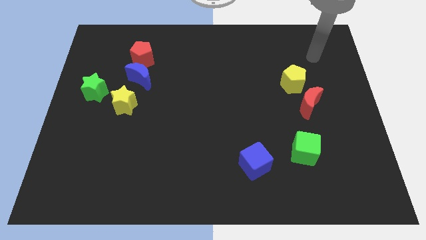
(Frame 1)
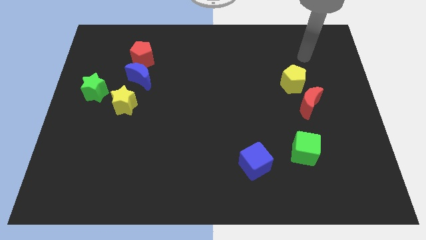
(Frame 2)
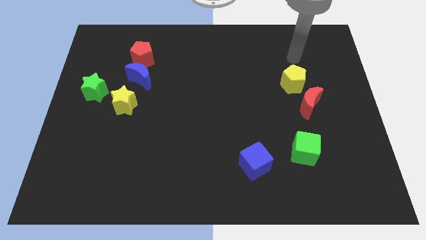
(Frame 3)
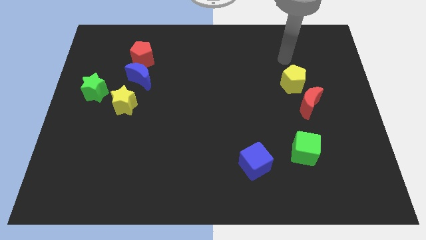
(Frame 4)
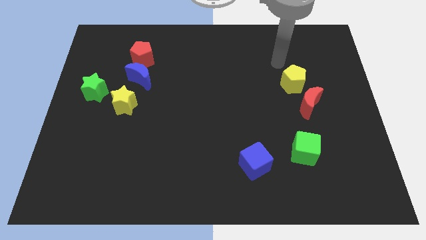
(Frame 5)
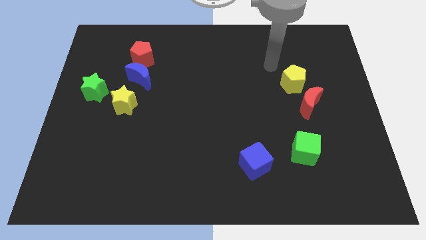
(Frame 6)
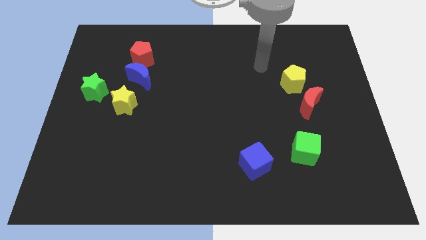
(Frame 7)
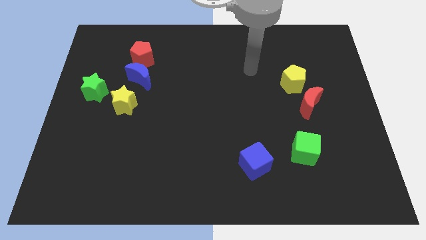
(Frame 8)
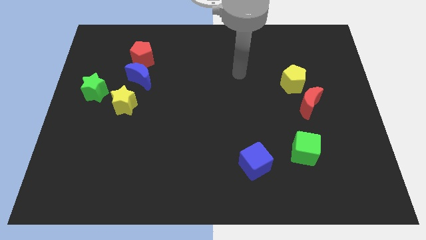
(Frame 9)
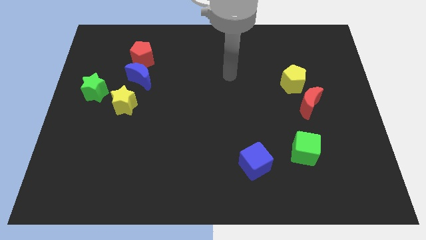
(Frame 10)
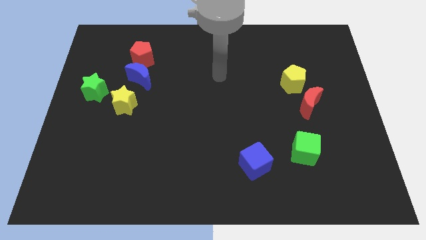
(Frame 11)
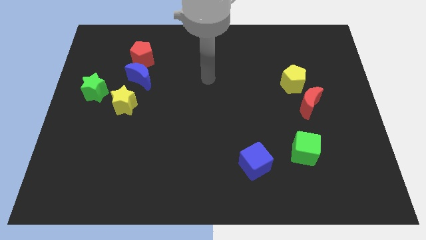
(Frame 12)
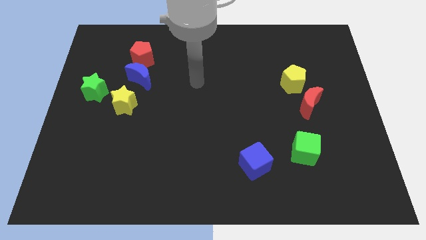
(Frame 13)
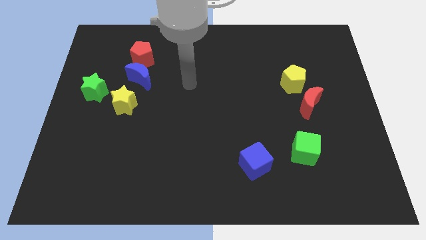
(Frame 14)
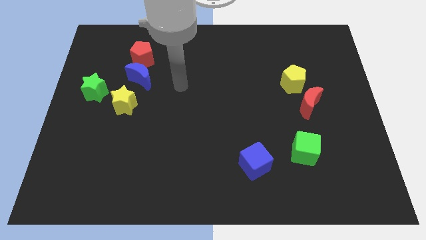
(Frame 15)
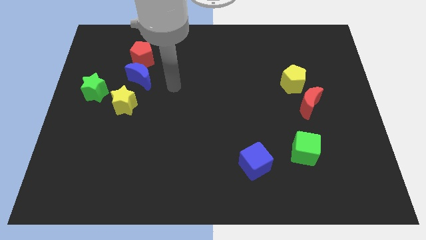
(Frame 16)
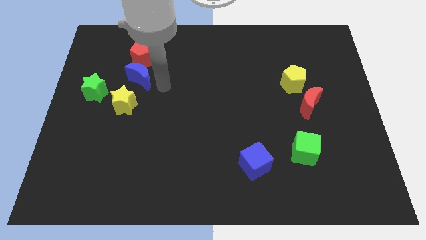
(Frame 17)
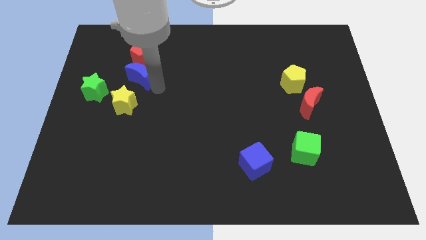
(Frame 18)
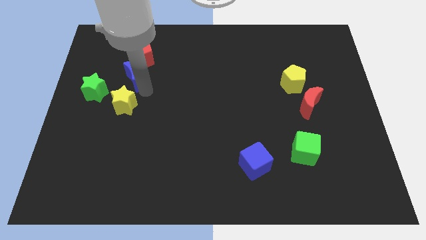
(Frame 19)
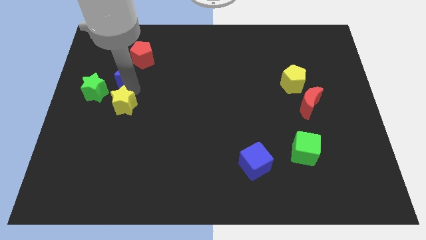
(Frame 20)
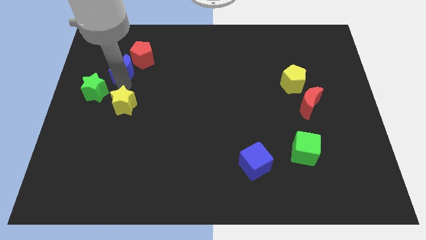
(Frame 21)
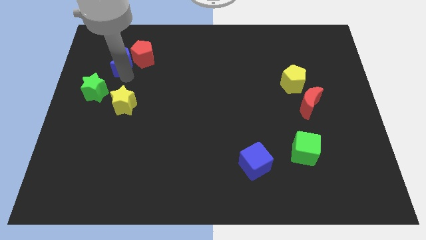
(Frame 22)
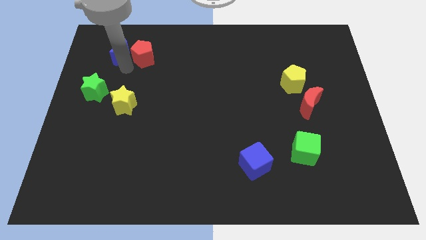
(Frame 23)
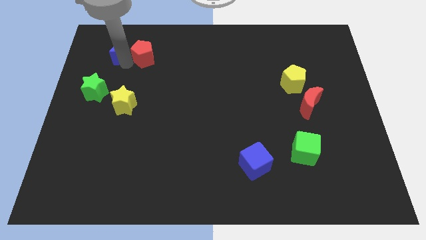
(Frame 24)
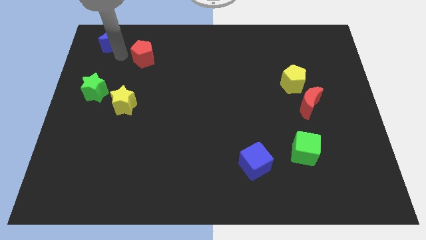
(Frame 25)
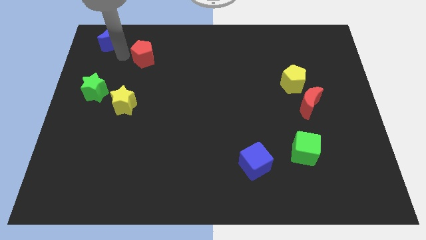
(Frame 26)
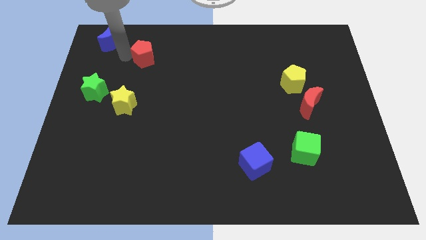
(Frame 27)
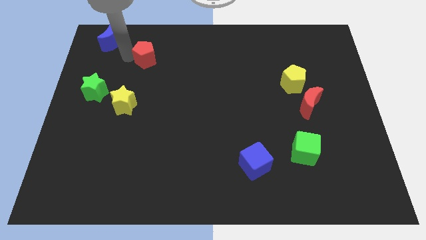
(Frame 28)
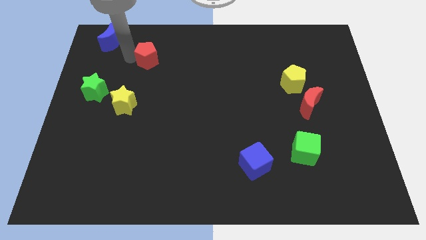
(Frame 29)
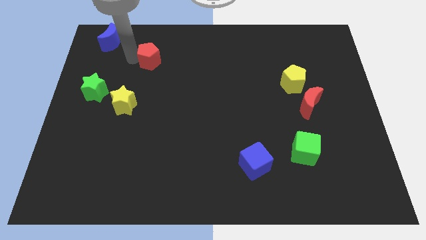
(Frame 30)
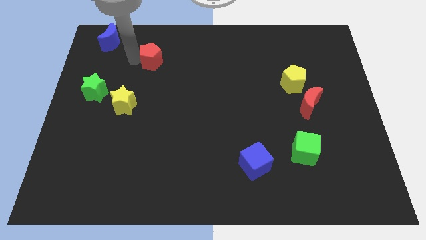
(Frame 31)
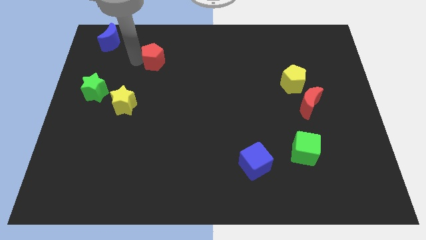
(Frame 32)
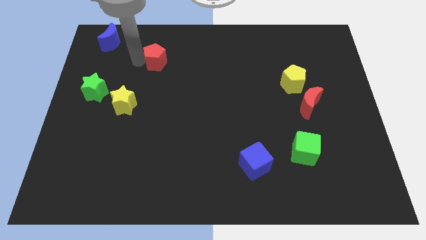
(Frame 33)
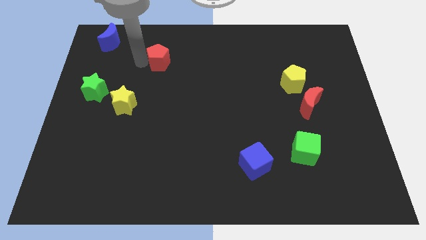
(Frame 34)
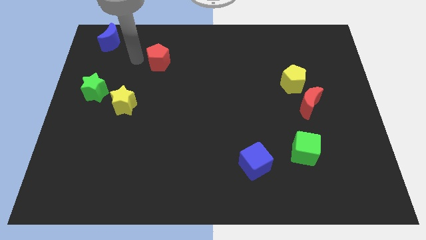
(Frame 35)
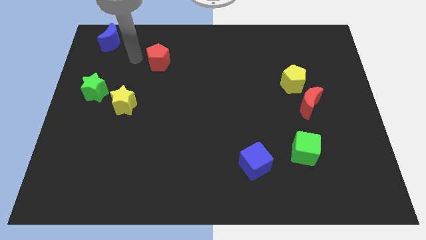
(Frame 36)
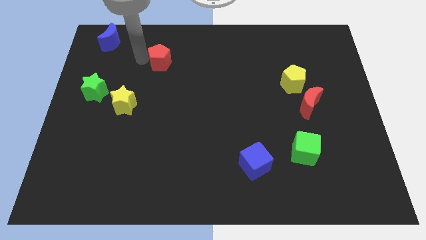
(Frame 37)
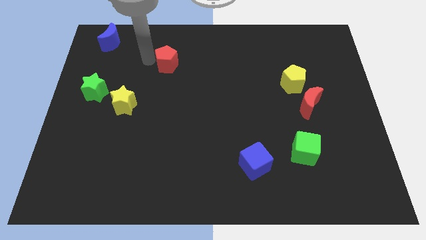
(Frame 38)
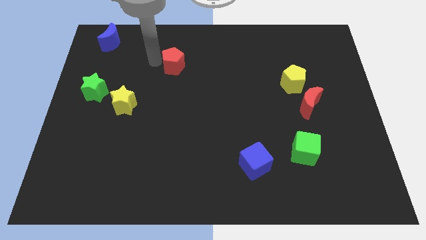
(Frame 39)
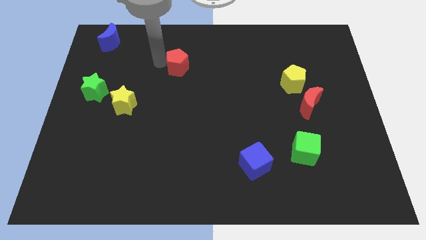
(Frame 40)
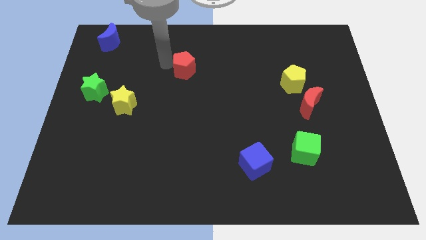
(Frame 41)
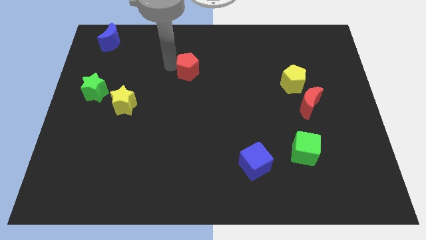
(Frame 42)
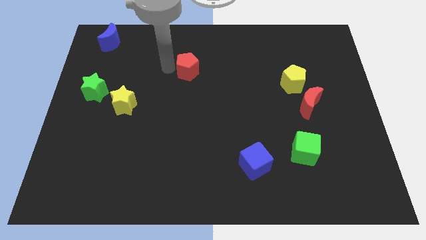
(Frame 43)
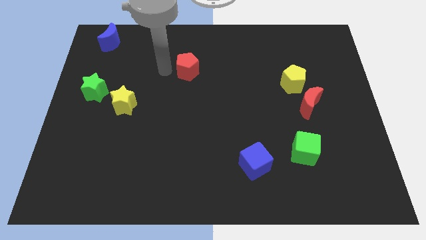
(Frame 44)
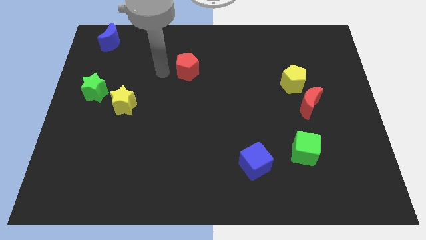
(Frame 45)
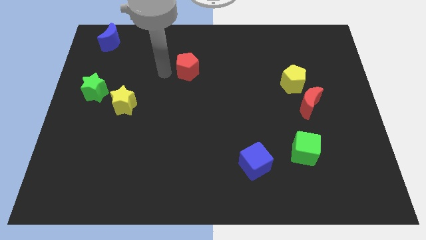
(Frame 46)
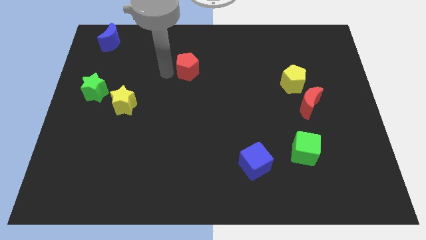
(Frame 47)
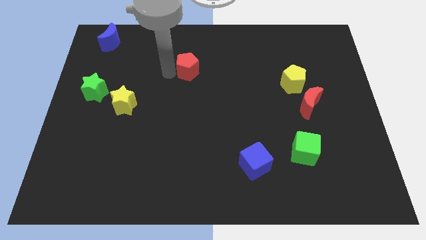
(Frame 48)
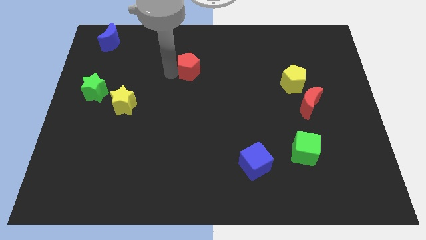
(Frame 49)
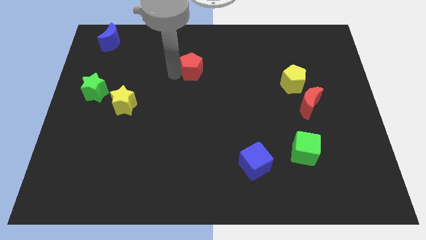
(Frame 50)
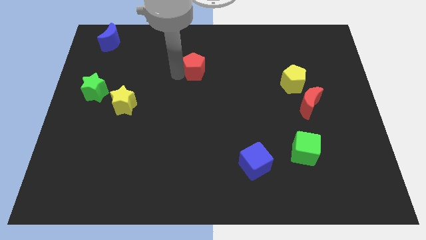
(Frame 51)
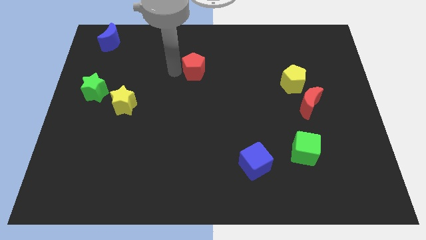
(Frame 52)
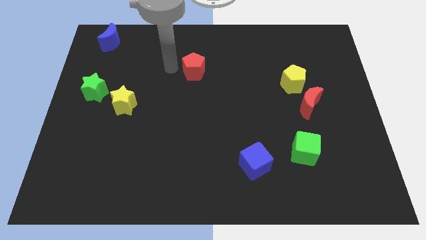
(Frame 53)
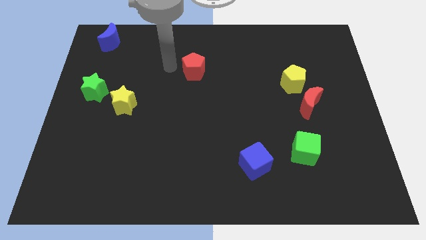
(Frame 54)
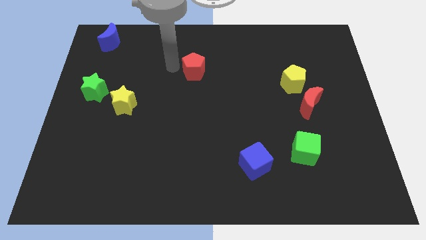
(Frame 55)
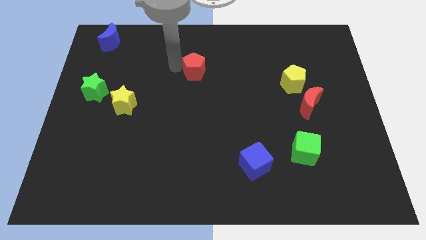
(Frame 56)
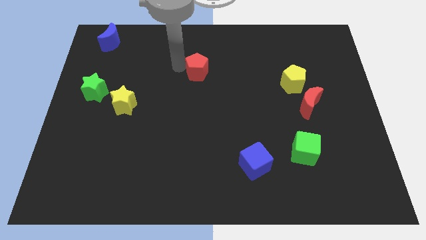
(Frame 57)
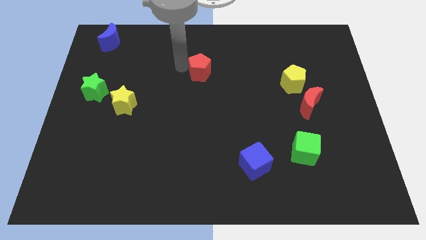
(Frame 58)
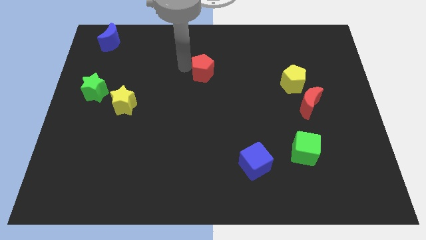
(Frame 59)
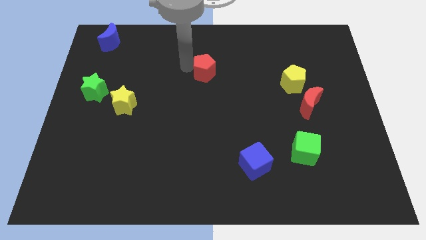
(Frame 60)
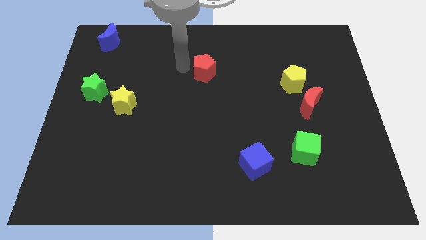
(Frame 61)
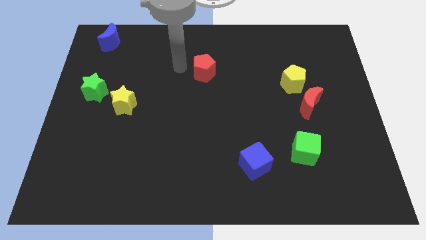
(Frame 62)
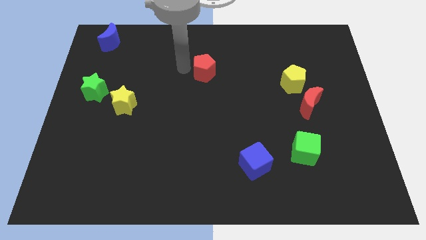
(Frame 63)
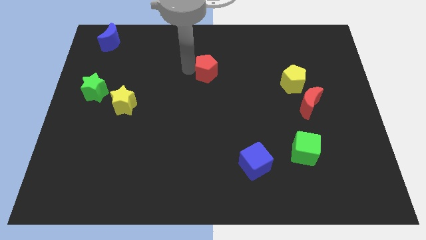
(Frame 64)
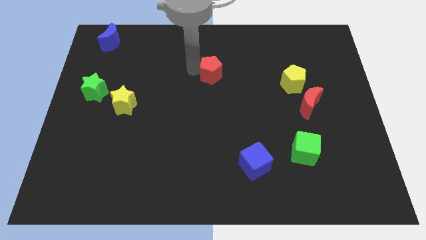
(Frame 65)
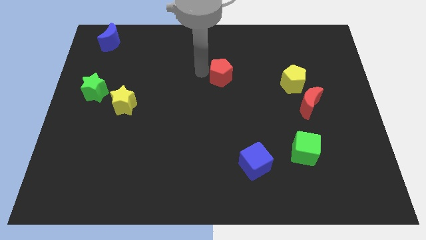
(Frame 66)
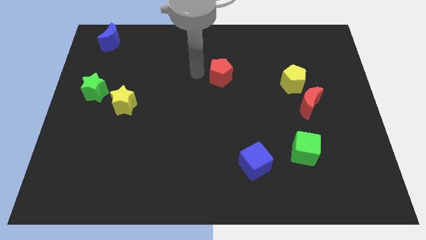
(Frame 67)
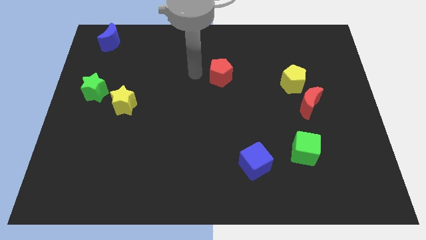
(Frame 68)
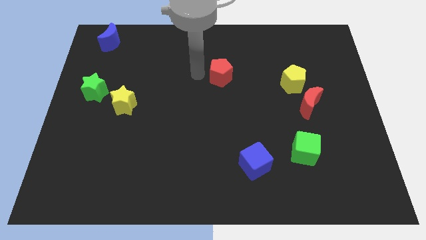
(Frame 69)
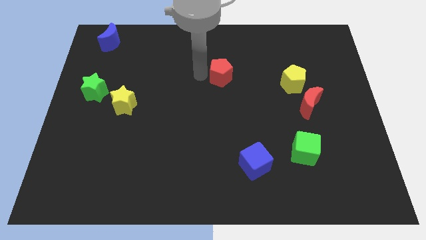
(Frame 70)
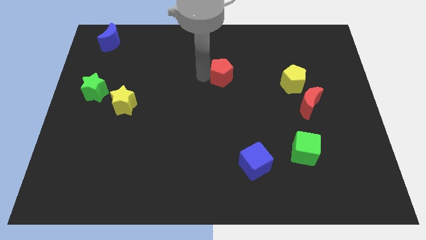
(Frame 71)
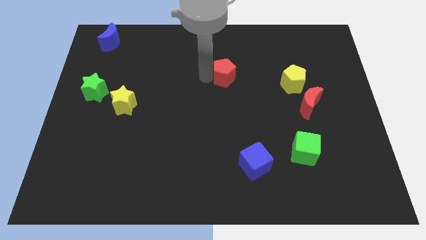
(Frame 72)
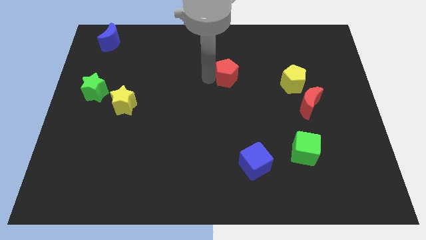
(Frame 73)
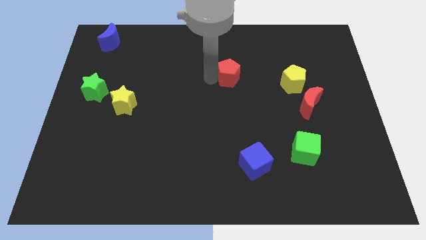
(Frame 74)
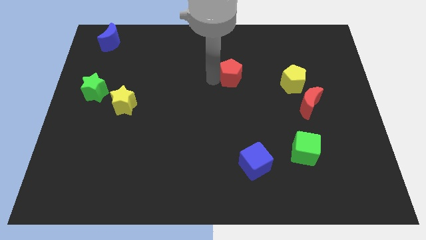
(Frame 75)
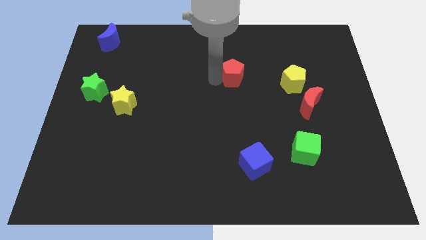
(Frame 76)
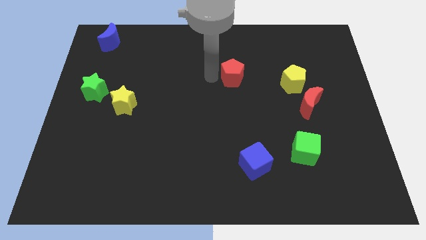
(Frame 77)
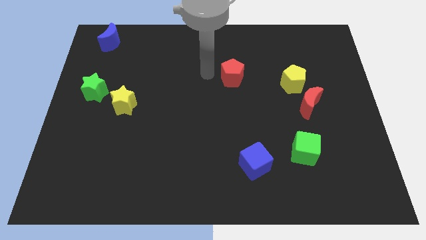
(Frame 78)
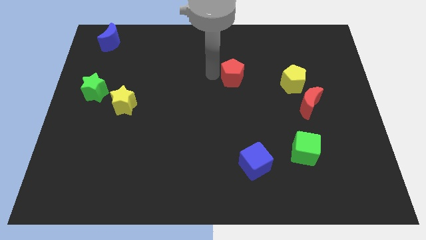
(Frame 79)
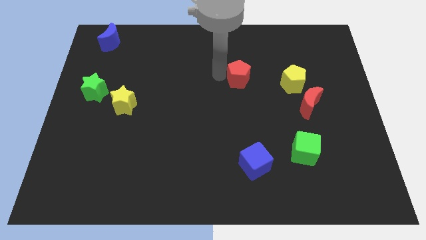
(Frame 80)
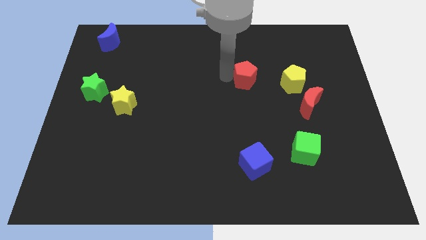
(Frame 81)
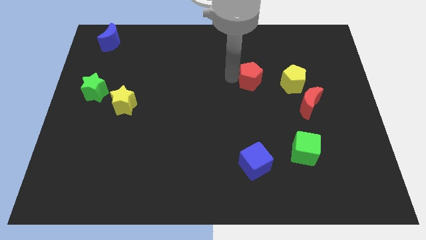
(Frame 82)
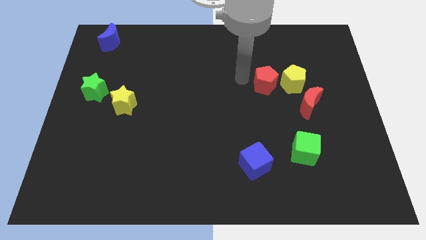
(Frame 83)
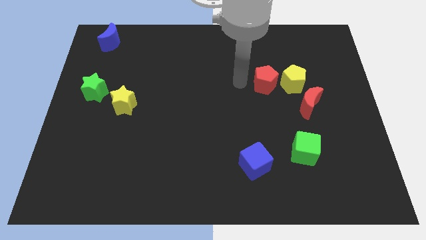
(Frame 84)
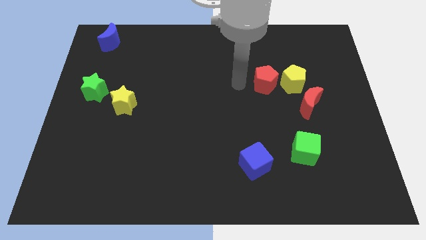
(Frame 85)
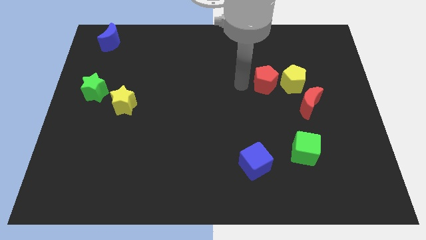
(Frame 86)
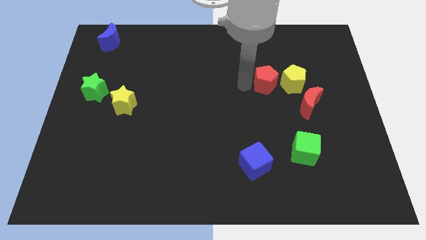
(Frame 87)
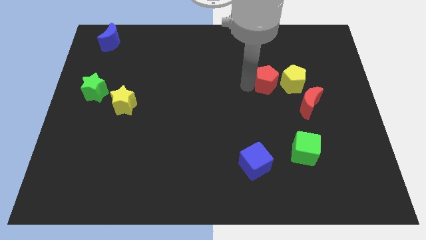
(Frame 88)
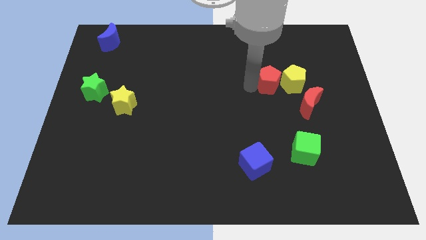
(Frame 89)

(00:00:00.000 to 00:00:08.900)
slide the red pentagon towards the yellow pentagon
